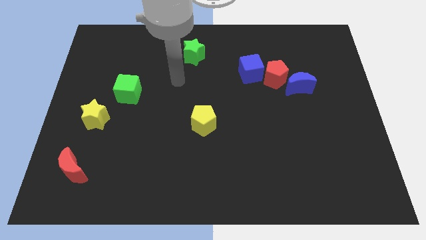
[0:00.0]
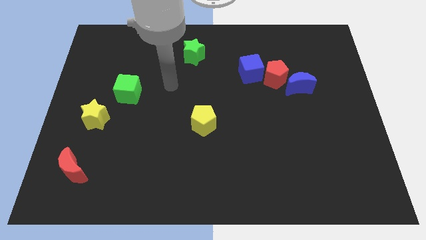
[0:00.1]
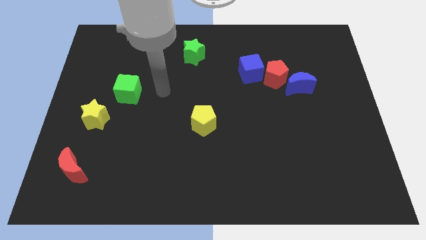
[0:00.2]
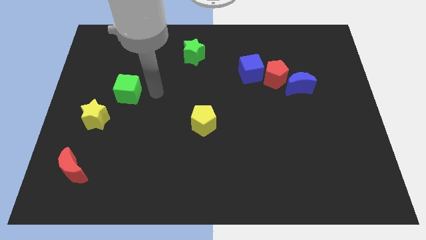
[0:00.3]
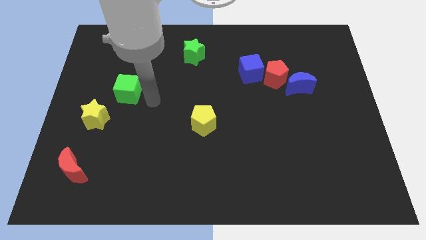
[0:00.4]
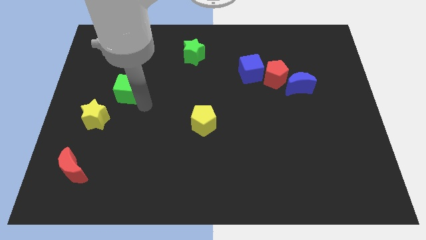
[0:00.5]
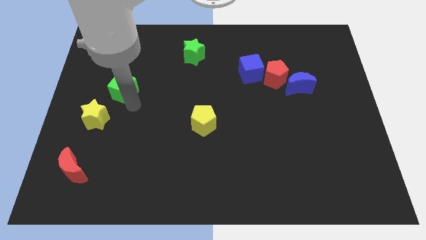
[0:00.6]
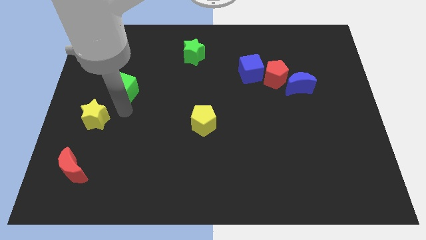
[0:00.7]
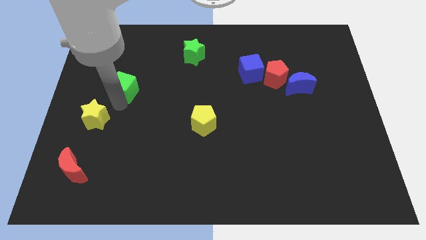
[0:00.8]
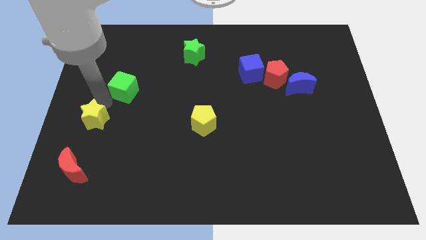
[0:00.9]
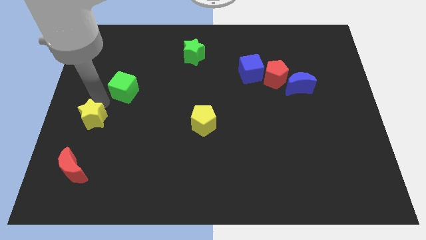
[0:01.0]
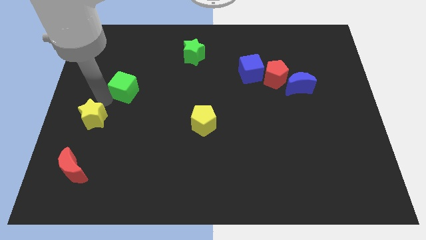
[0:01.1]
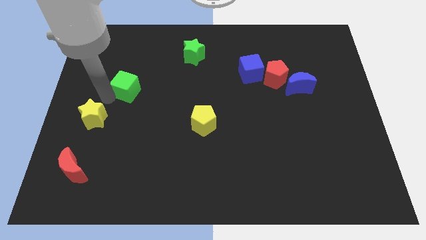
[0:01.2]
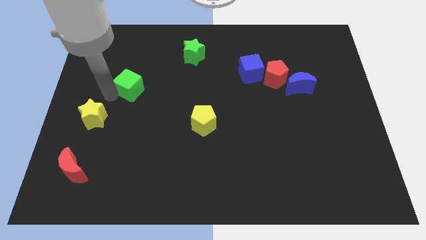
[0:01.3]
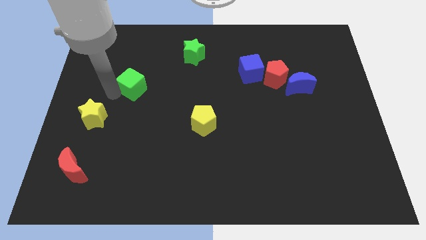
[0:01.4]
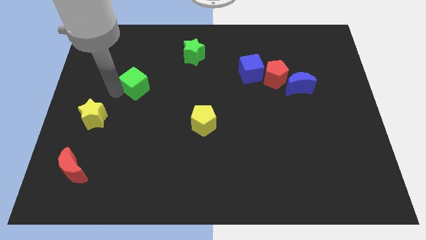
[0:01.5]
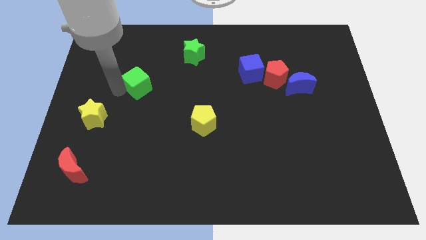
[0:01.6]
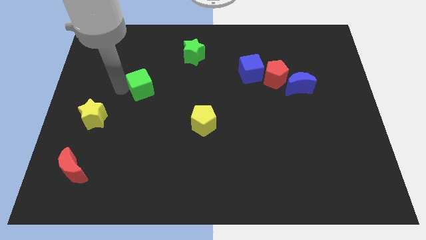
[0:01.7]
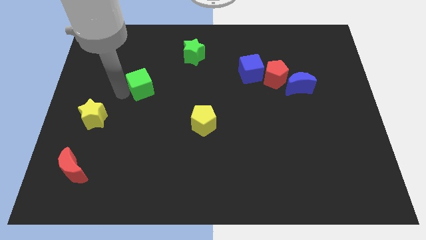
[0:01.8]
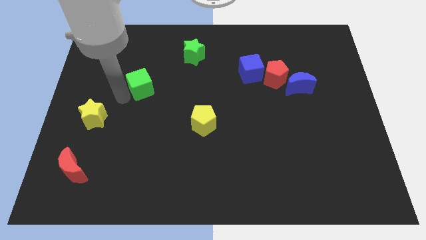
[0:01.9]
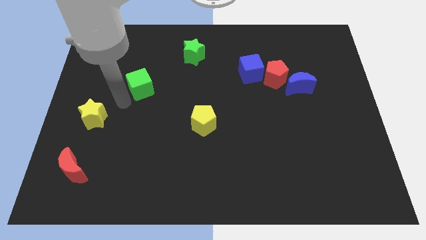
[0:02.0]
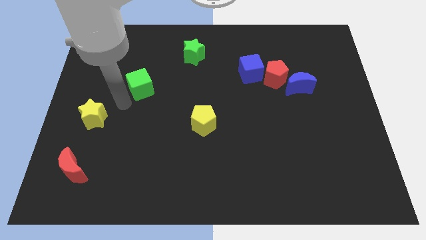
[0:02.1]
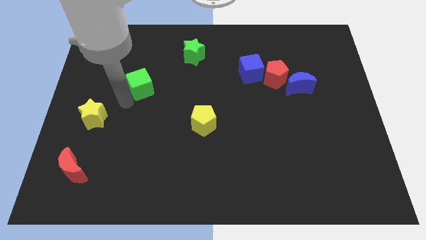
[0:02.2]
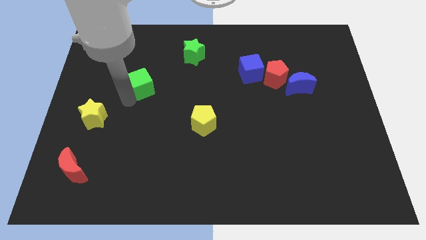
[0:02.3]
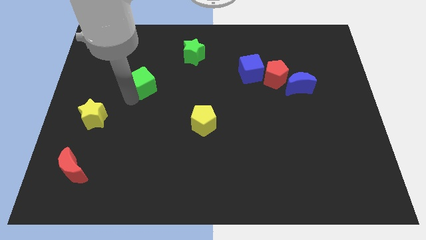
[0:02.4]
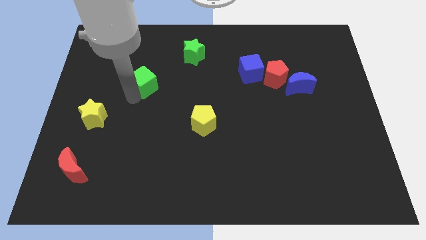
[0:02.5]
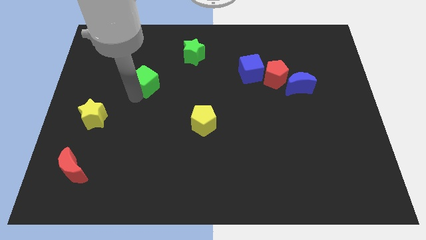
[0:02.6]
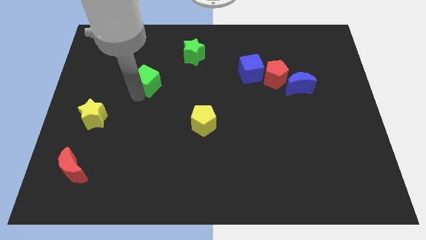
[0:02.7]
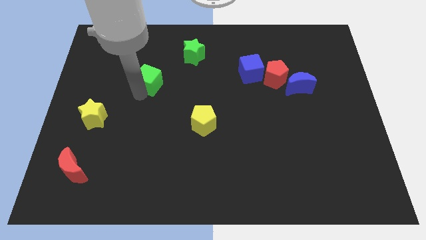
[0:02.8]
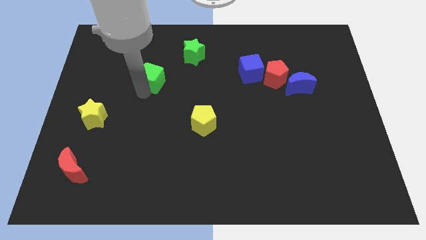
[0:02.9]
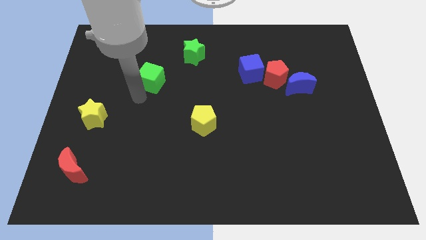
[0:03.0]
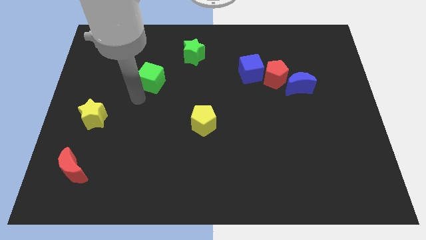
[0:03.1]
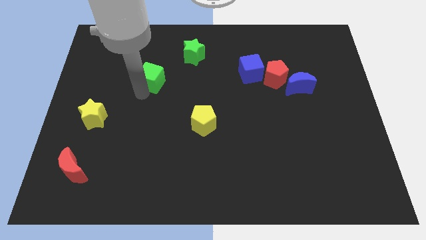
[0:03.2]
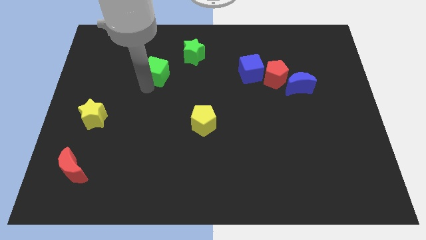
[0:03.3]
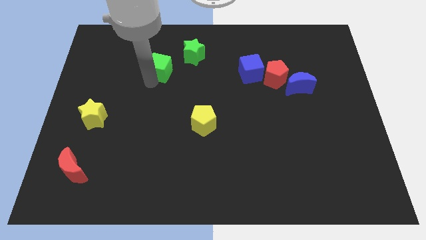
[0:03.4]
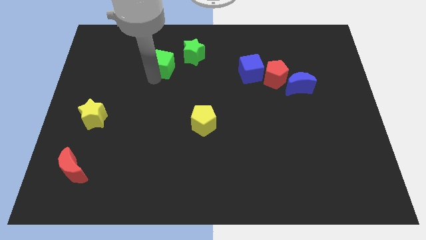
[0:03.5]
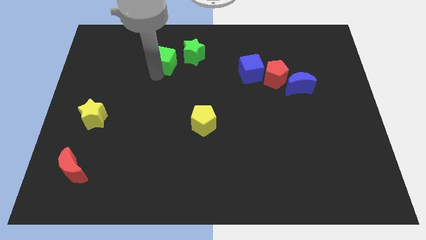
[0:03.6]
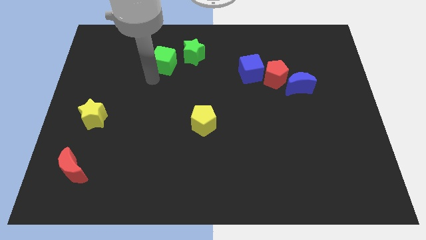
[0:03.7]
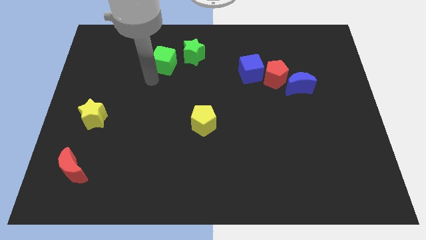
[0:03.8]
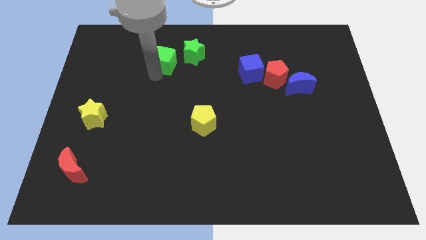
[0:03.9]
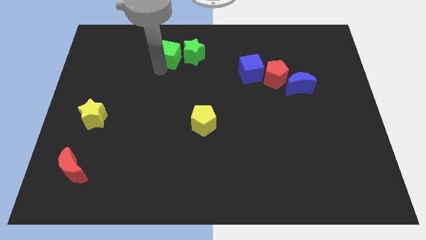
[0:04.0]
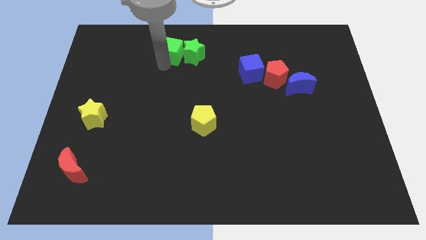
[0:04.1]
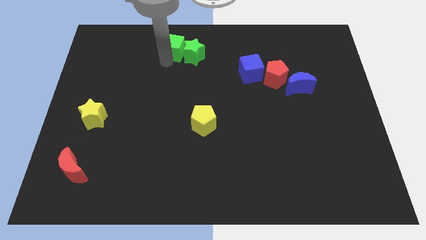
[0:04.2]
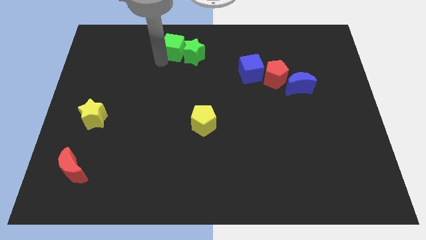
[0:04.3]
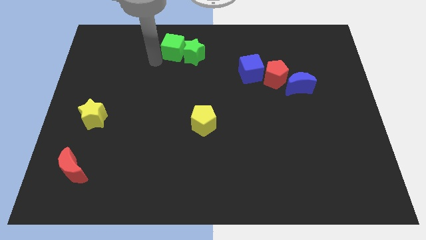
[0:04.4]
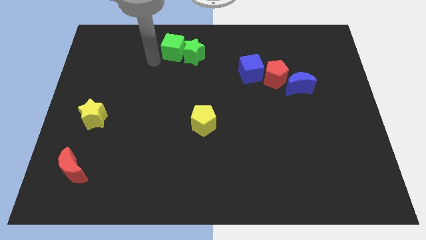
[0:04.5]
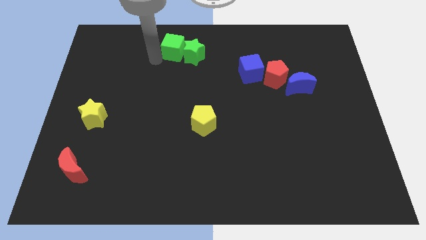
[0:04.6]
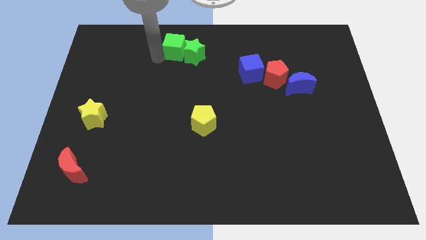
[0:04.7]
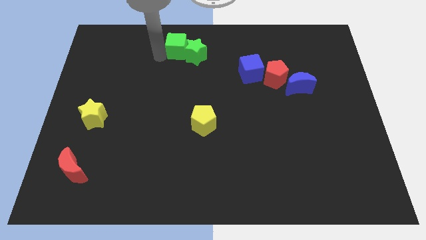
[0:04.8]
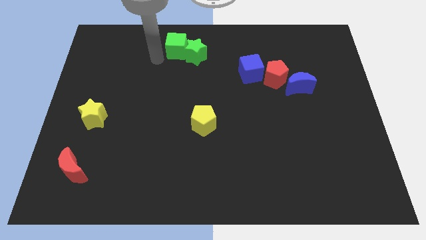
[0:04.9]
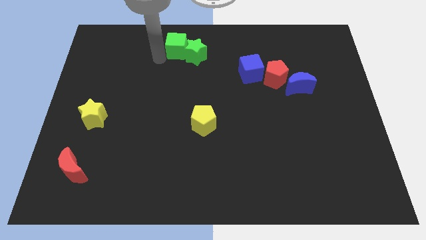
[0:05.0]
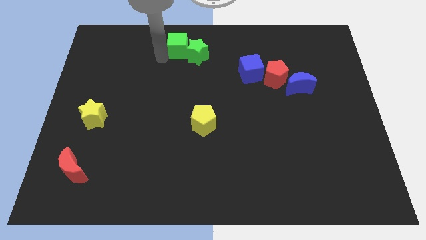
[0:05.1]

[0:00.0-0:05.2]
move the green cube to the towards your base

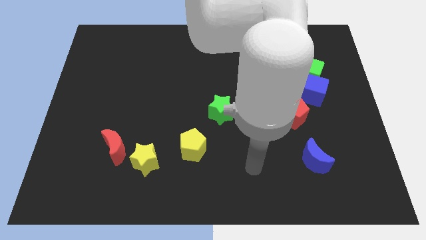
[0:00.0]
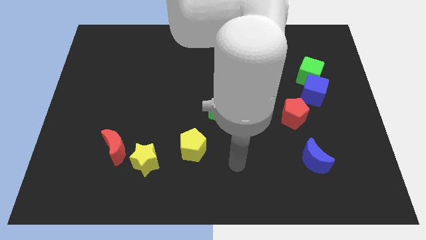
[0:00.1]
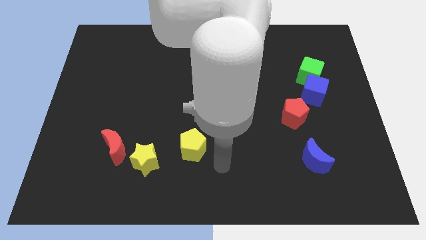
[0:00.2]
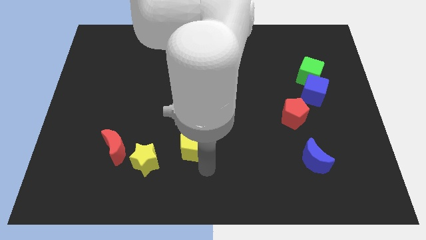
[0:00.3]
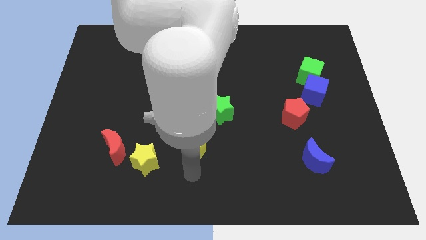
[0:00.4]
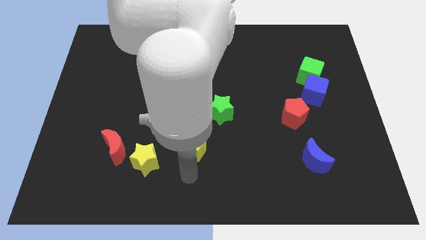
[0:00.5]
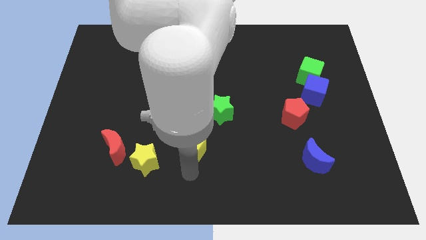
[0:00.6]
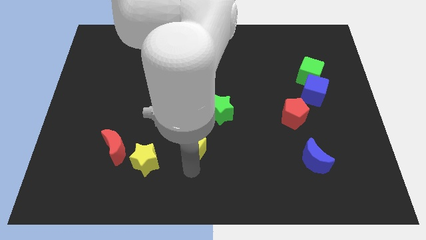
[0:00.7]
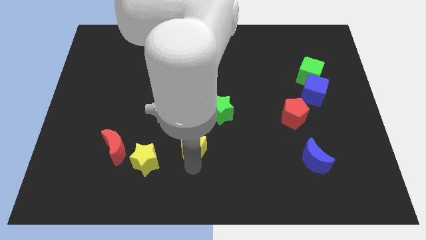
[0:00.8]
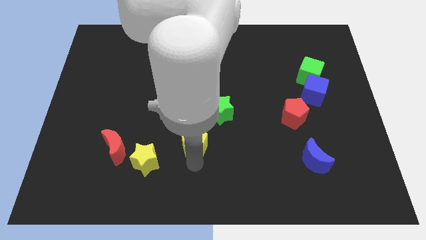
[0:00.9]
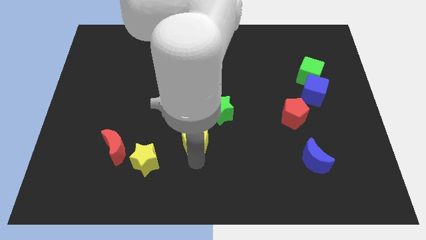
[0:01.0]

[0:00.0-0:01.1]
push the yellow pentagon to the middle of the board
